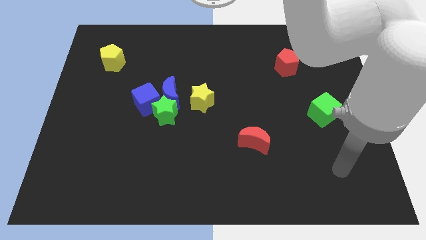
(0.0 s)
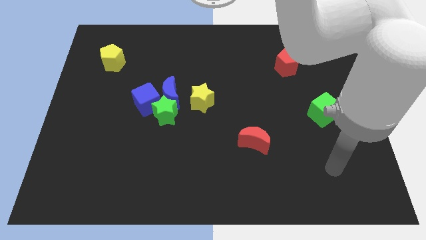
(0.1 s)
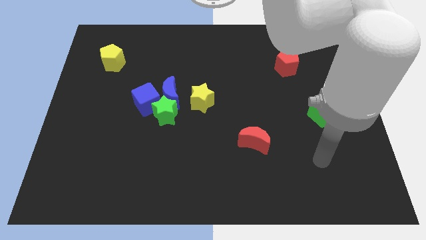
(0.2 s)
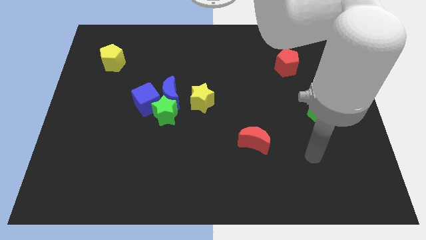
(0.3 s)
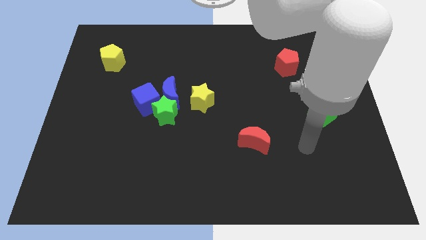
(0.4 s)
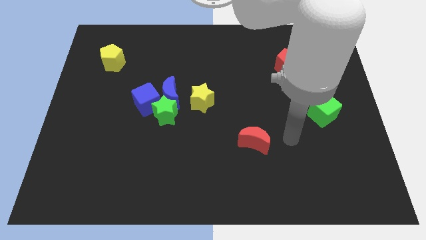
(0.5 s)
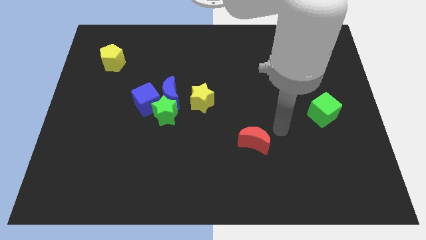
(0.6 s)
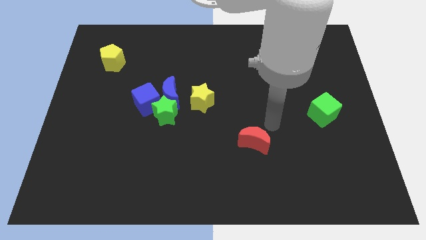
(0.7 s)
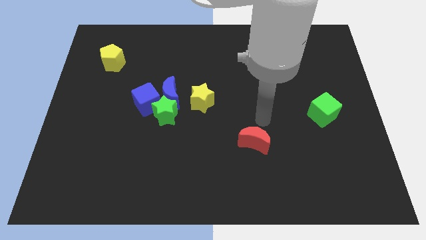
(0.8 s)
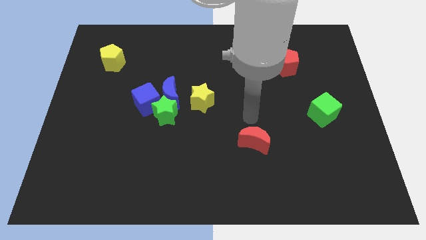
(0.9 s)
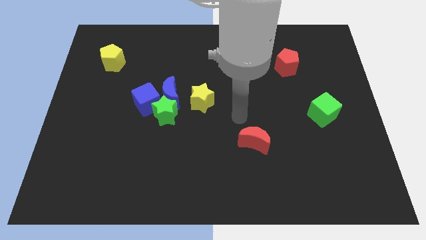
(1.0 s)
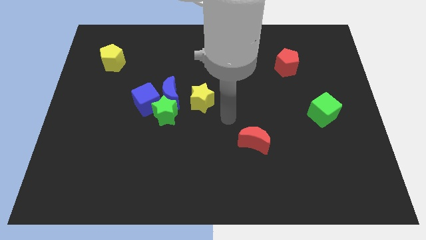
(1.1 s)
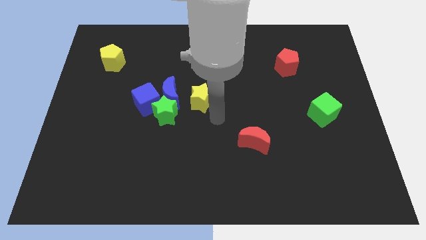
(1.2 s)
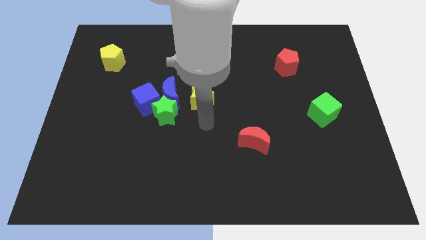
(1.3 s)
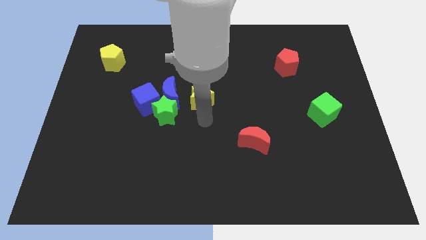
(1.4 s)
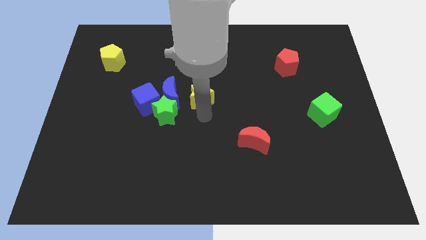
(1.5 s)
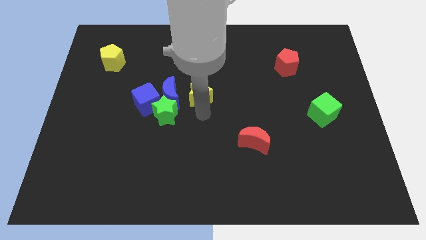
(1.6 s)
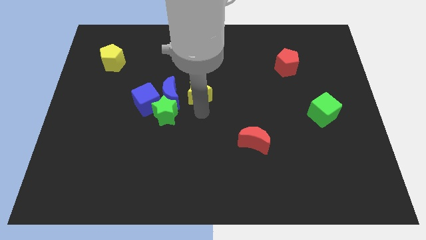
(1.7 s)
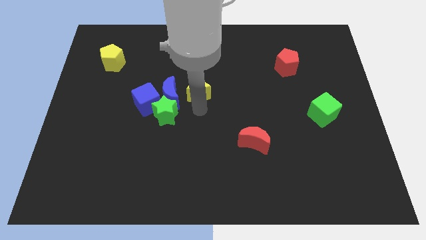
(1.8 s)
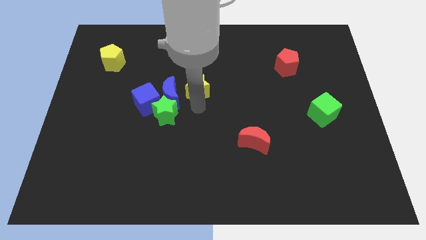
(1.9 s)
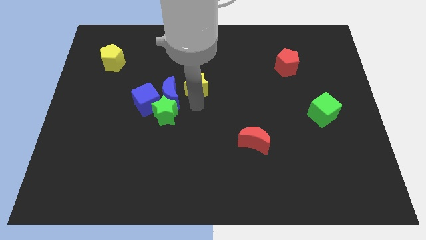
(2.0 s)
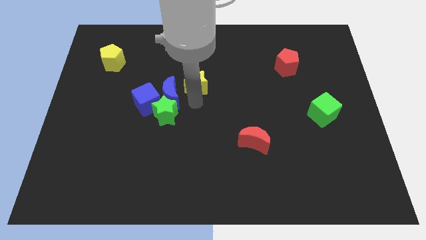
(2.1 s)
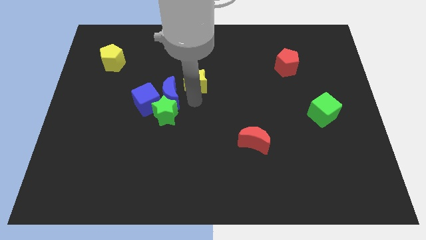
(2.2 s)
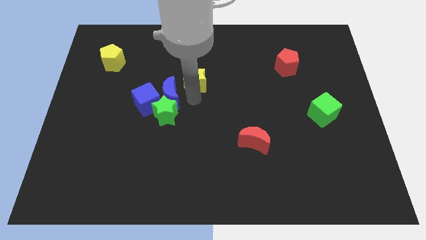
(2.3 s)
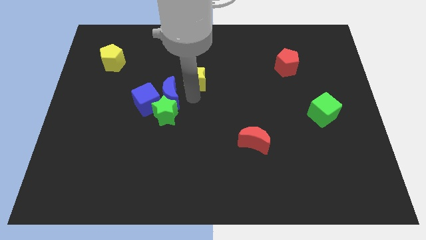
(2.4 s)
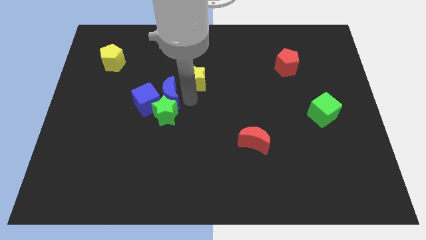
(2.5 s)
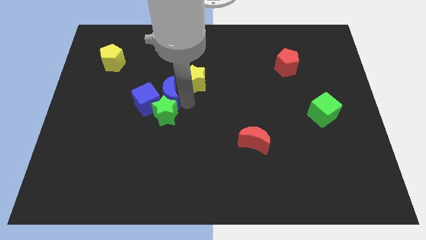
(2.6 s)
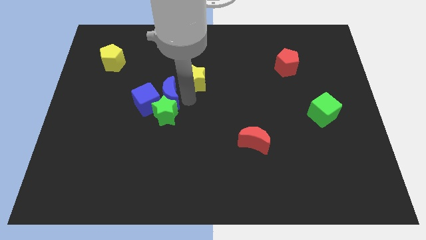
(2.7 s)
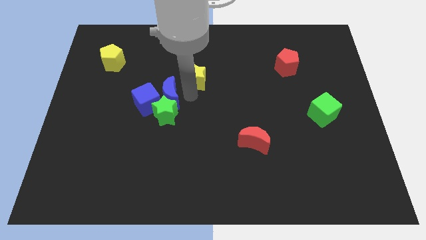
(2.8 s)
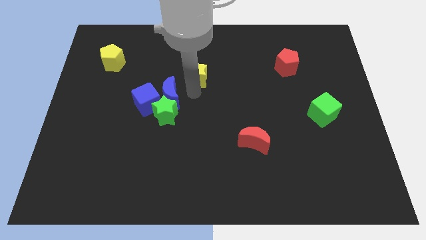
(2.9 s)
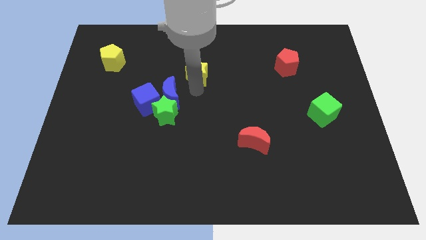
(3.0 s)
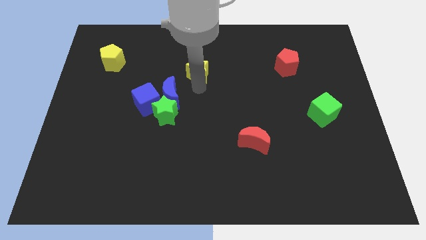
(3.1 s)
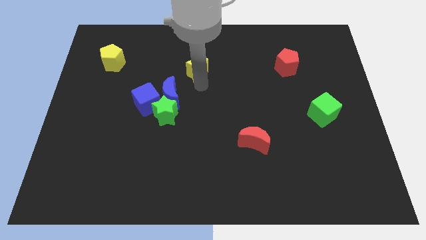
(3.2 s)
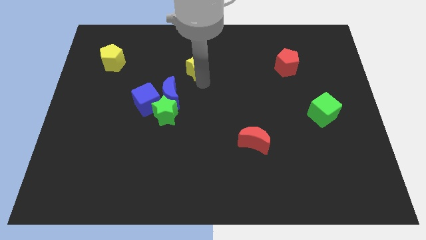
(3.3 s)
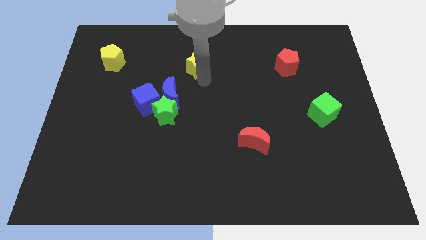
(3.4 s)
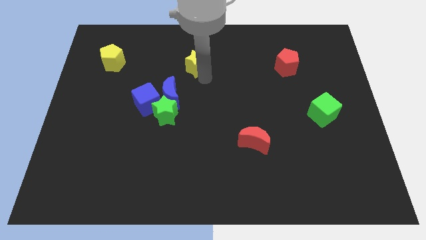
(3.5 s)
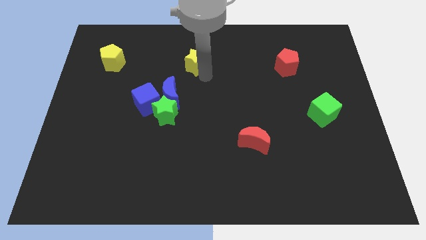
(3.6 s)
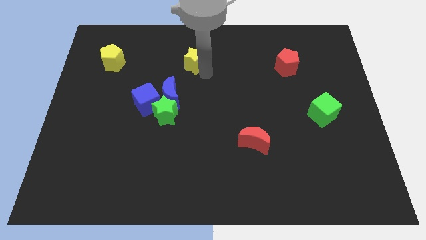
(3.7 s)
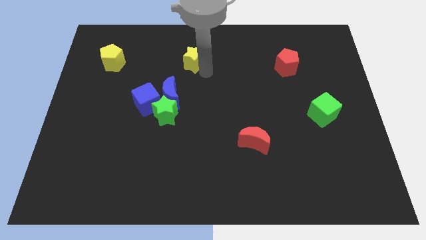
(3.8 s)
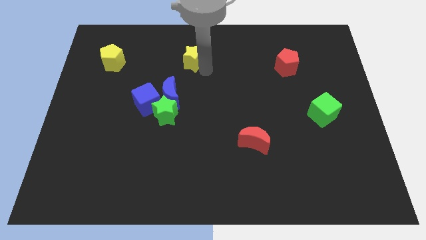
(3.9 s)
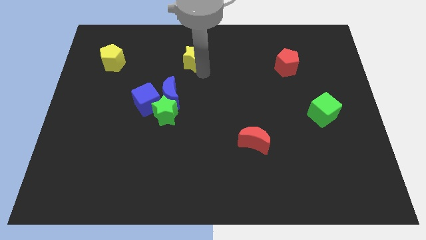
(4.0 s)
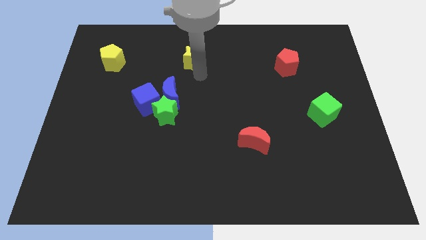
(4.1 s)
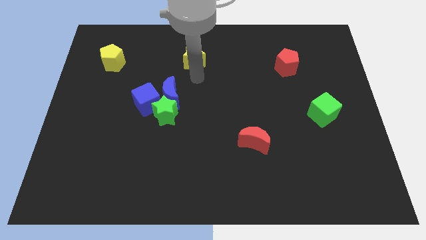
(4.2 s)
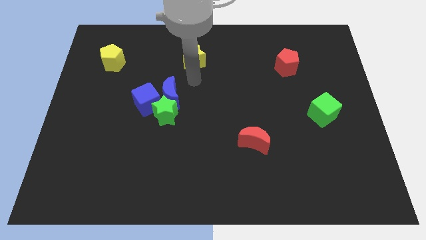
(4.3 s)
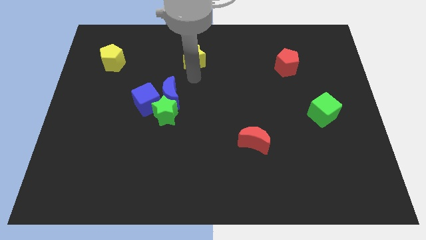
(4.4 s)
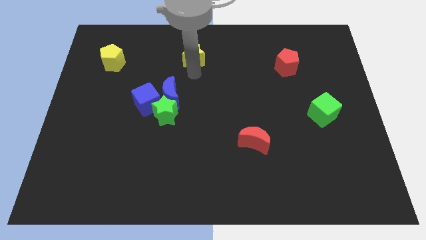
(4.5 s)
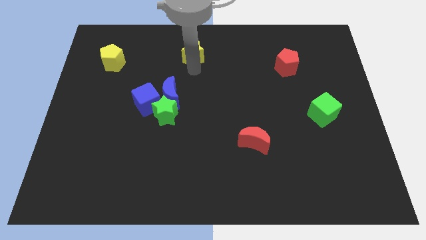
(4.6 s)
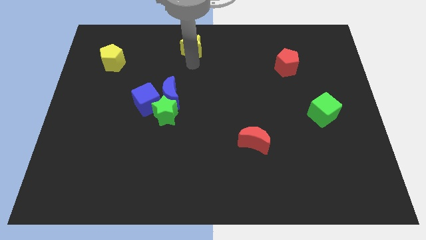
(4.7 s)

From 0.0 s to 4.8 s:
push the yellow star to the top

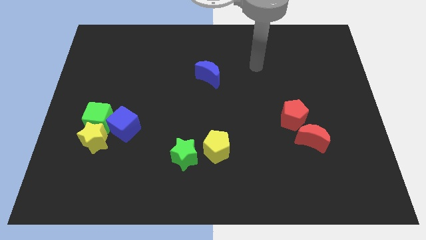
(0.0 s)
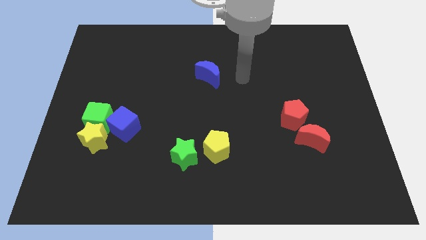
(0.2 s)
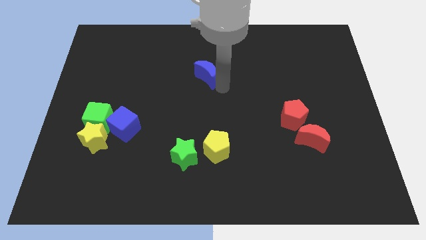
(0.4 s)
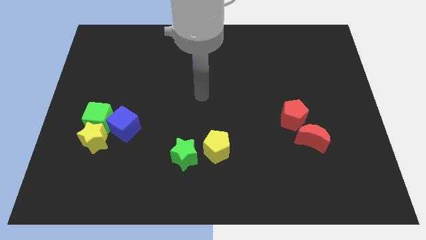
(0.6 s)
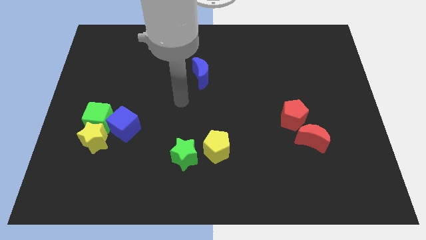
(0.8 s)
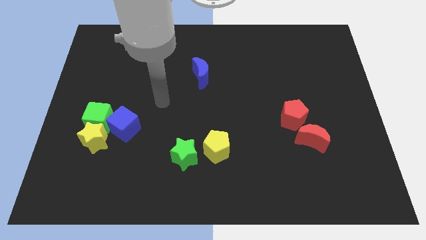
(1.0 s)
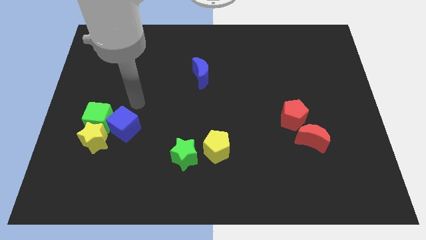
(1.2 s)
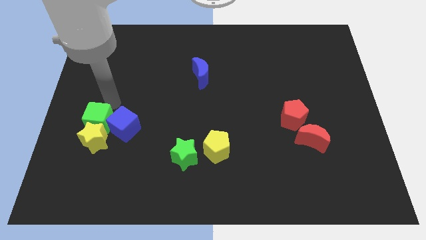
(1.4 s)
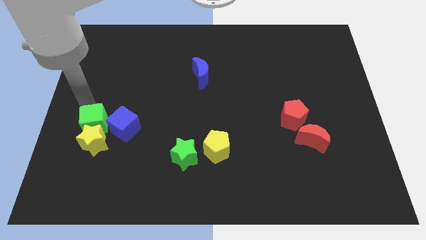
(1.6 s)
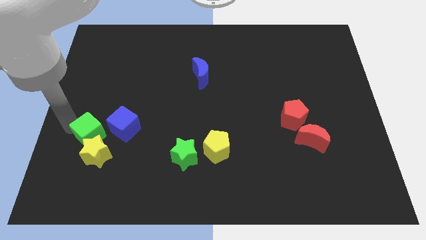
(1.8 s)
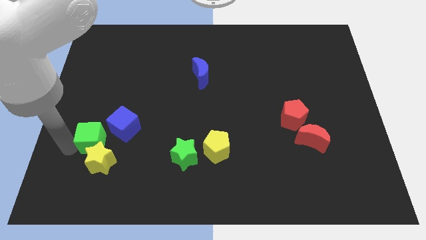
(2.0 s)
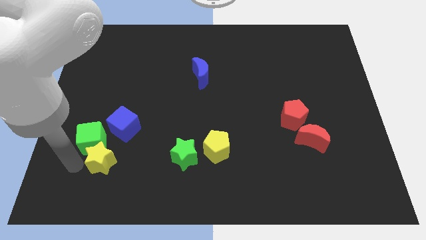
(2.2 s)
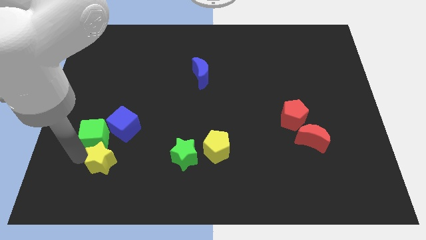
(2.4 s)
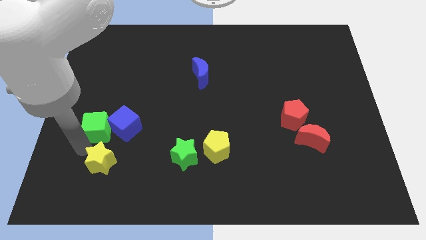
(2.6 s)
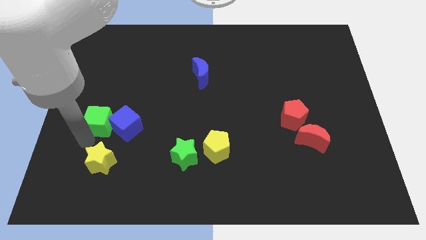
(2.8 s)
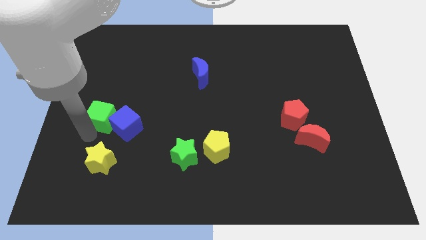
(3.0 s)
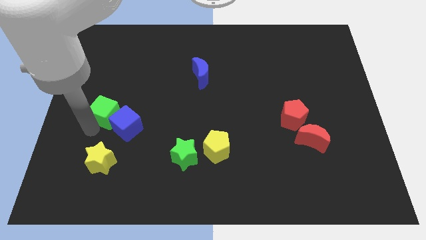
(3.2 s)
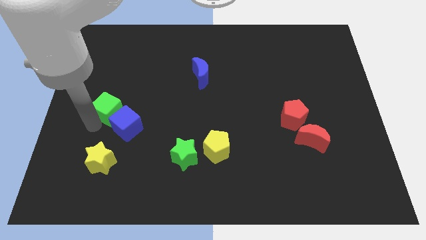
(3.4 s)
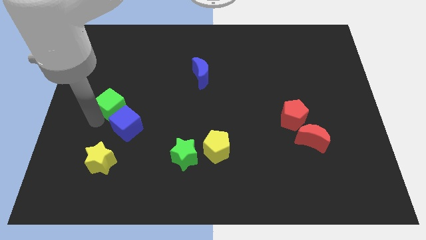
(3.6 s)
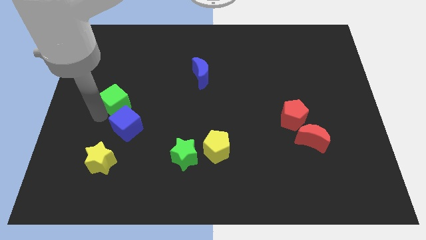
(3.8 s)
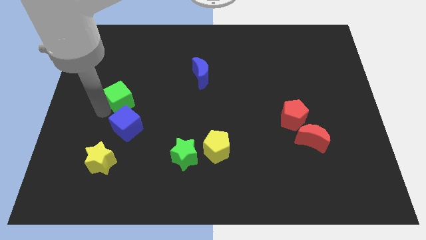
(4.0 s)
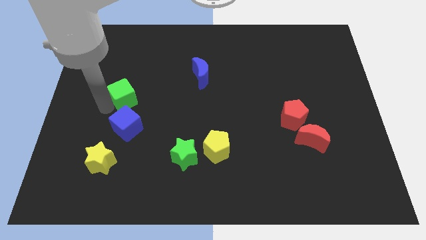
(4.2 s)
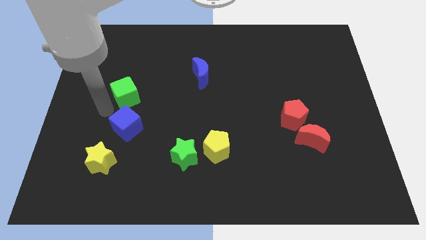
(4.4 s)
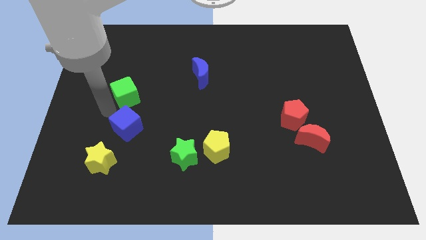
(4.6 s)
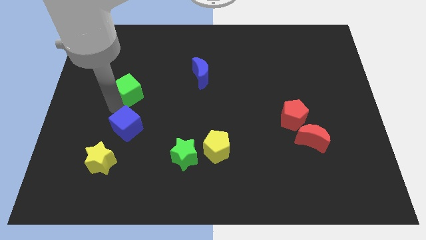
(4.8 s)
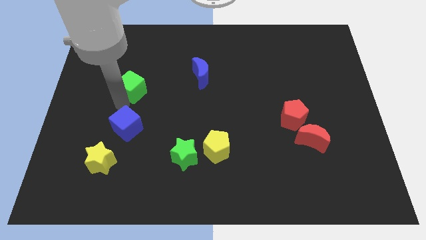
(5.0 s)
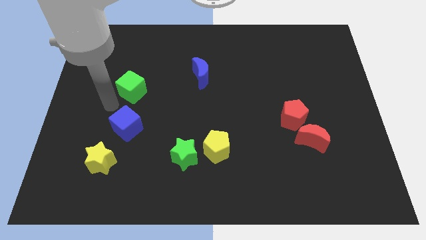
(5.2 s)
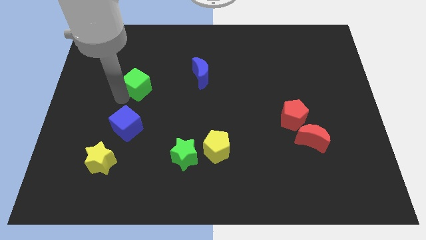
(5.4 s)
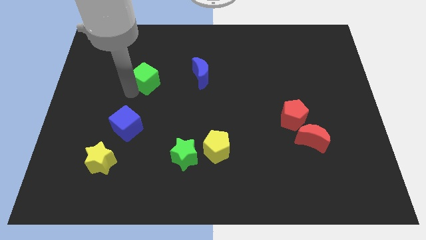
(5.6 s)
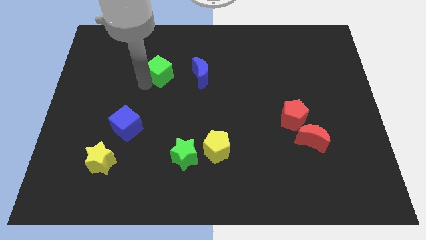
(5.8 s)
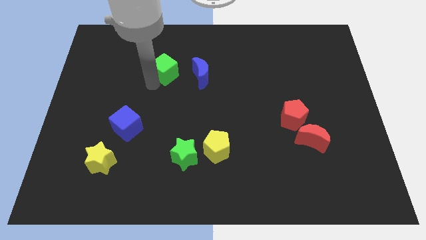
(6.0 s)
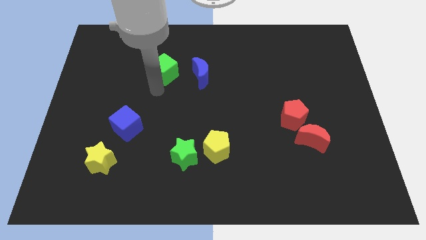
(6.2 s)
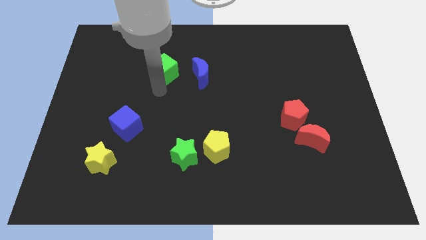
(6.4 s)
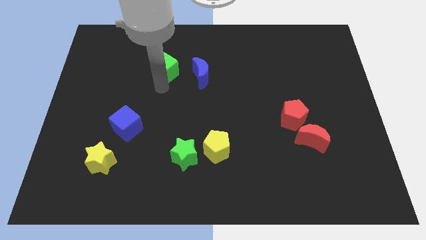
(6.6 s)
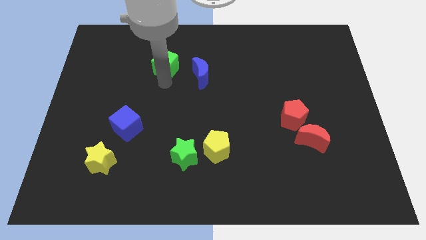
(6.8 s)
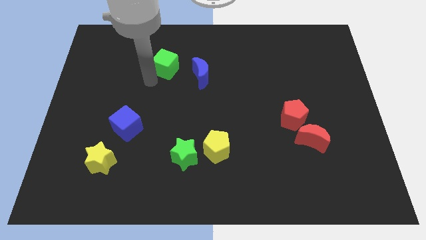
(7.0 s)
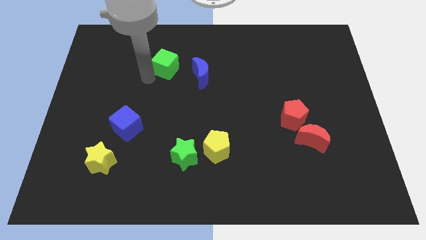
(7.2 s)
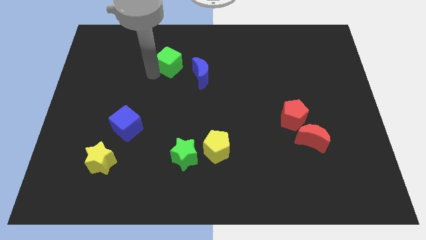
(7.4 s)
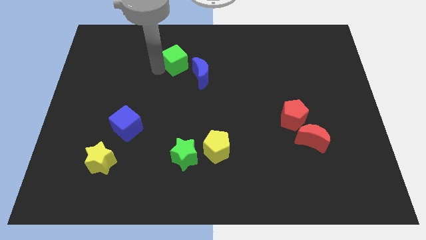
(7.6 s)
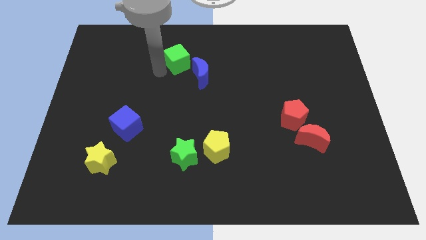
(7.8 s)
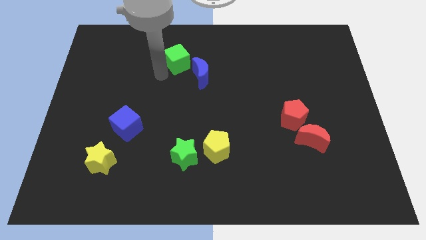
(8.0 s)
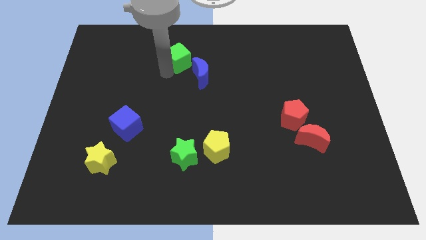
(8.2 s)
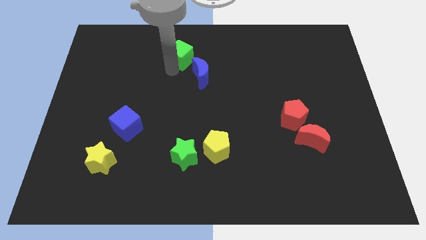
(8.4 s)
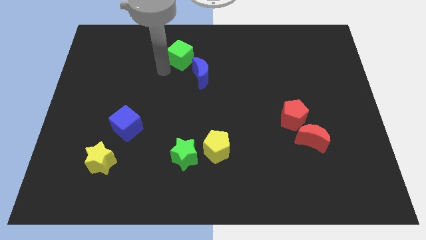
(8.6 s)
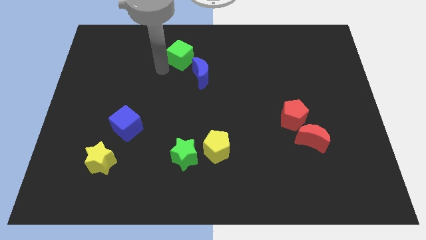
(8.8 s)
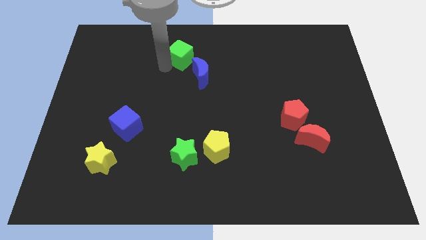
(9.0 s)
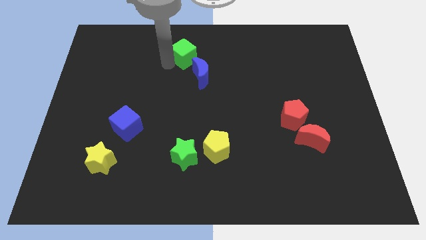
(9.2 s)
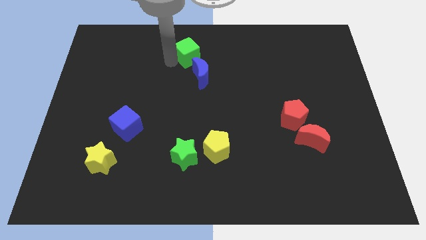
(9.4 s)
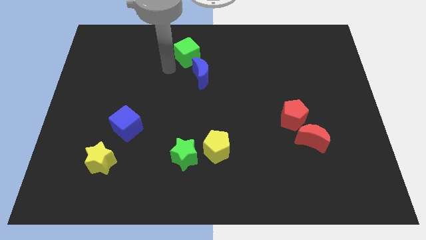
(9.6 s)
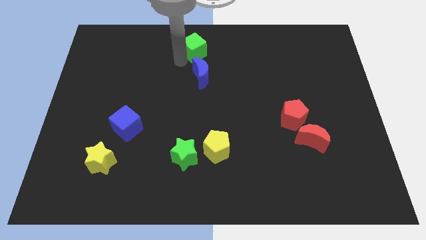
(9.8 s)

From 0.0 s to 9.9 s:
put the green cube to the top side
